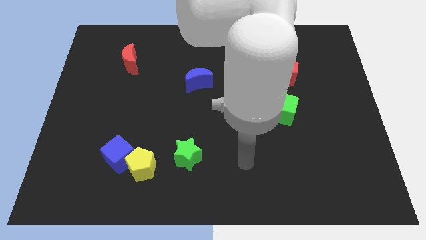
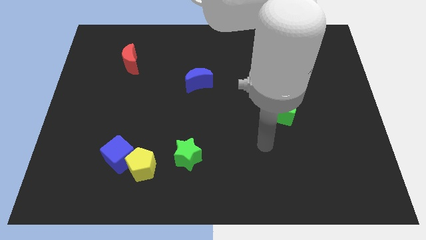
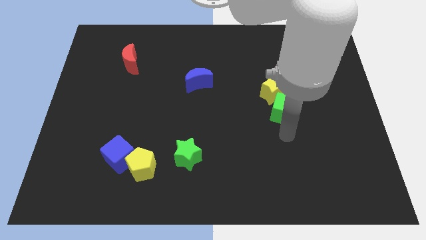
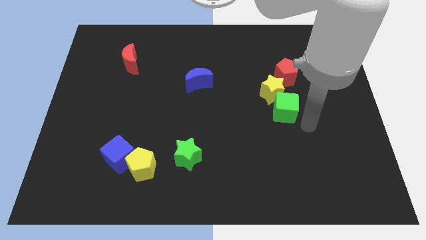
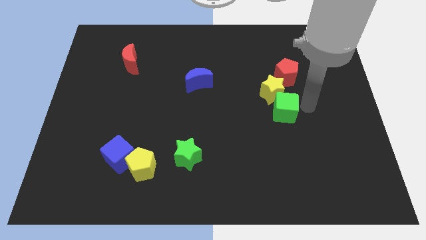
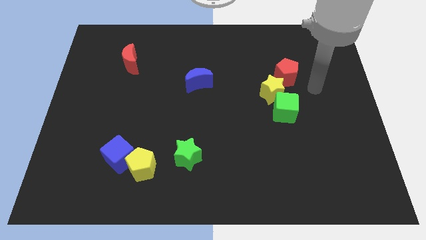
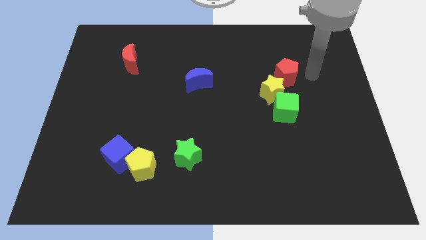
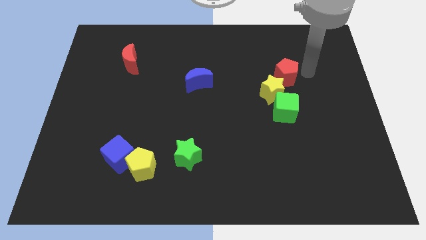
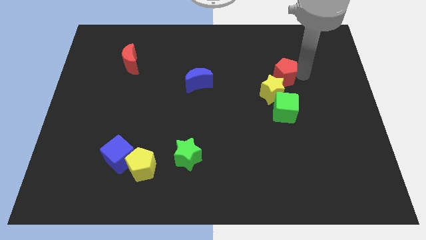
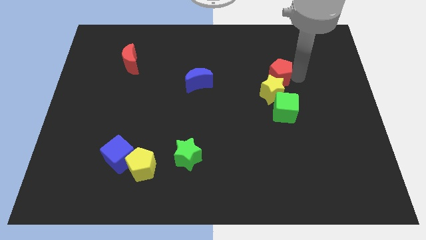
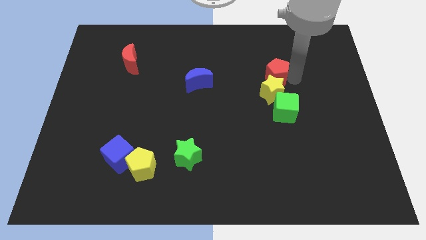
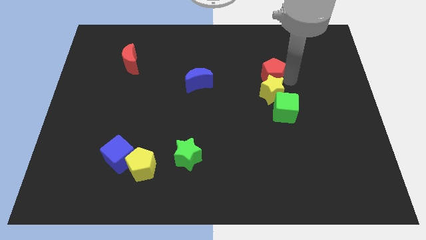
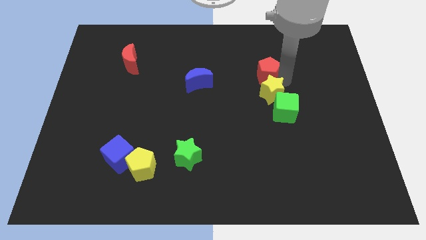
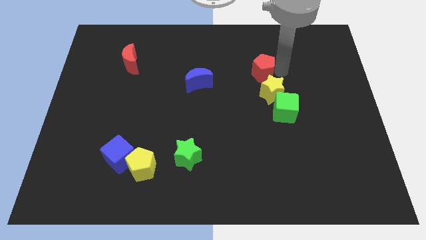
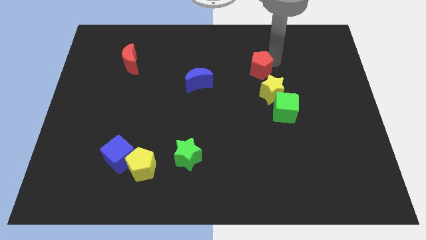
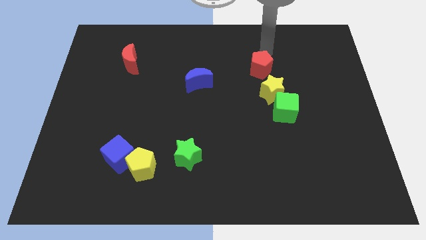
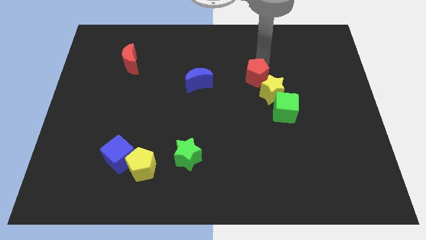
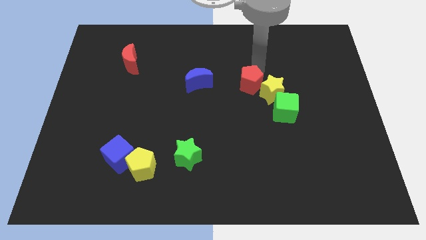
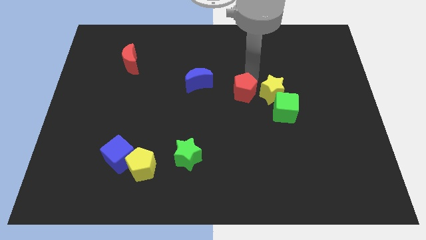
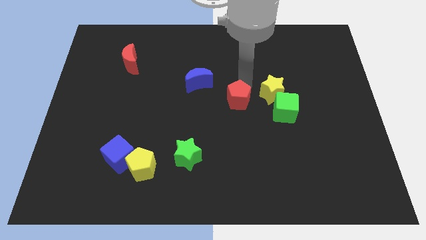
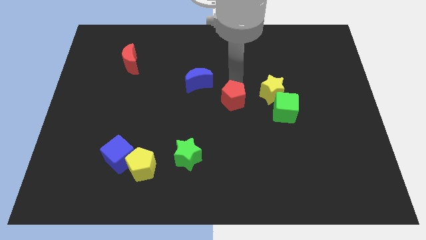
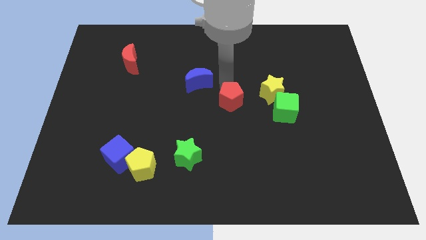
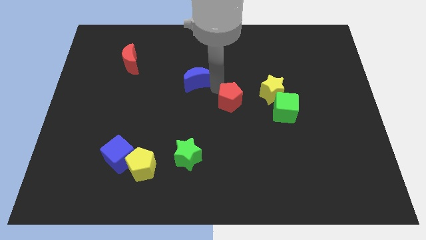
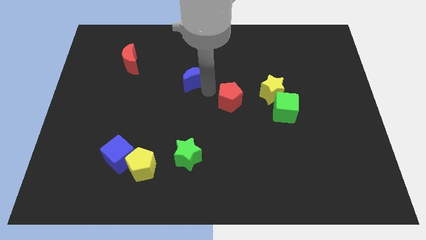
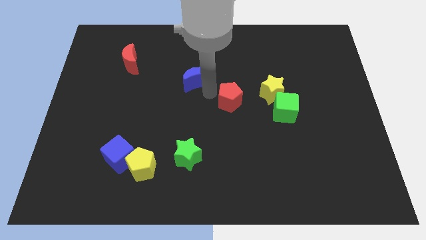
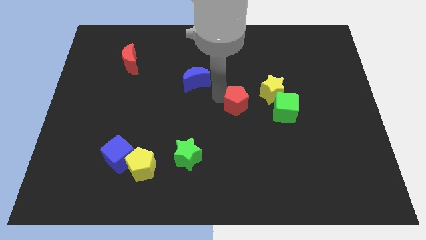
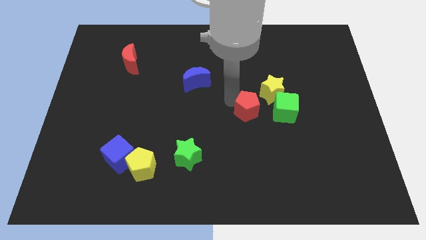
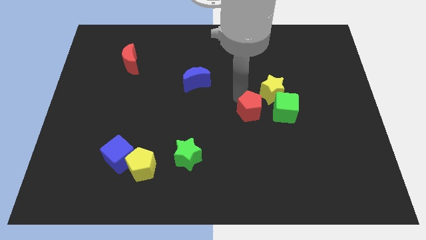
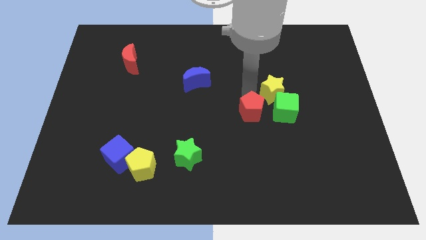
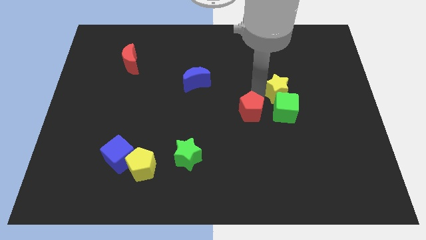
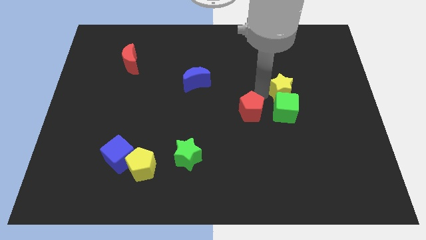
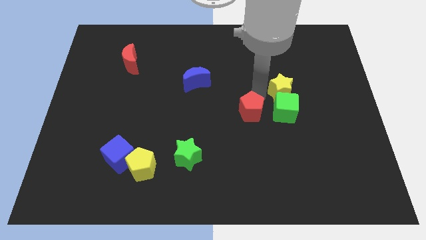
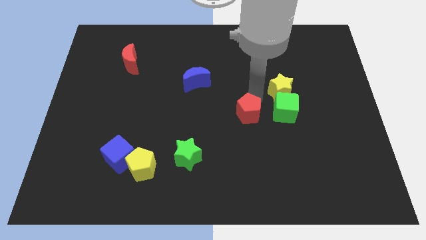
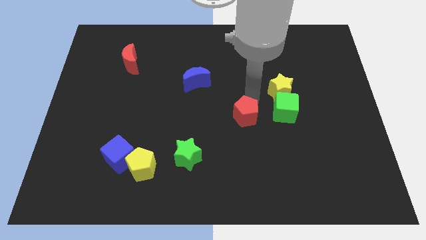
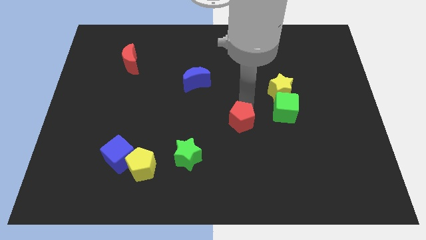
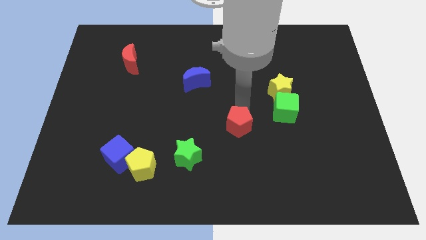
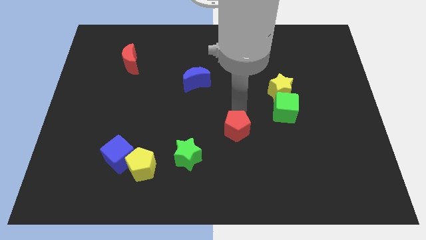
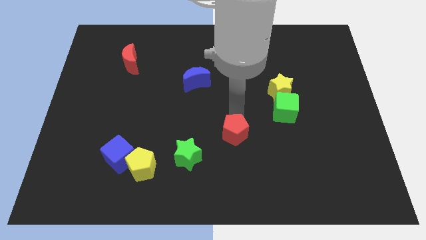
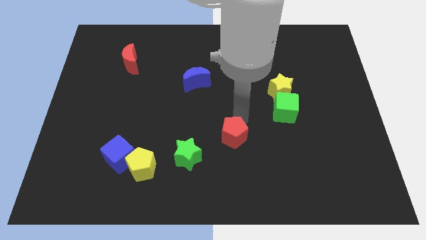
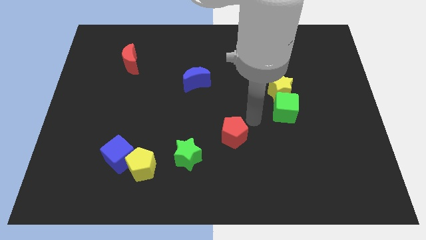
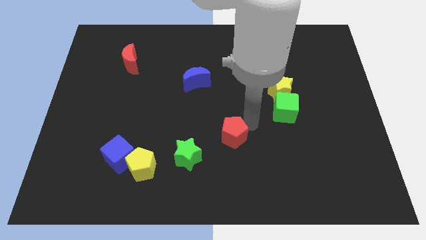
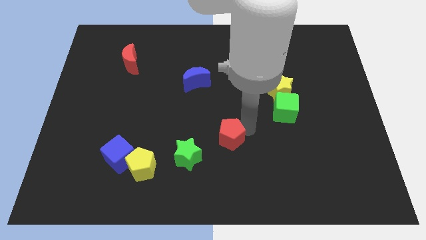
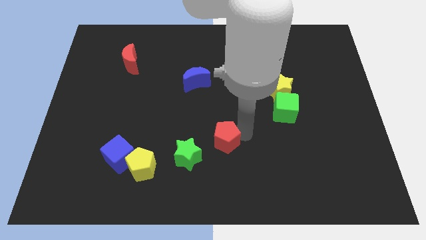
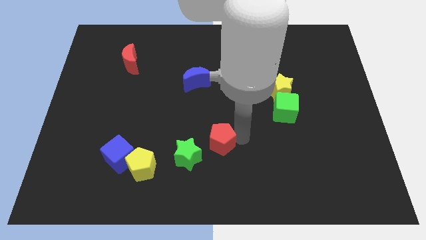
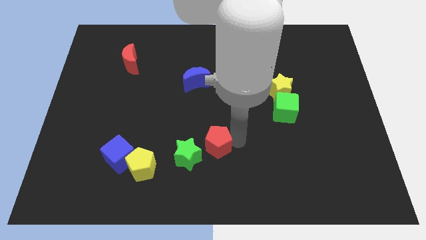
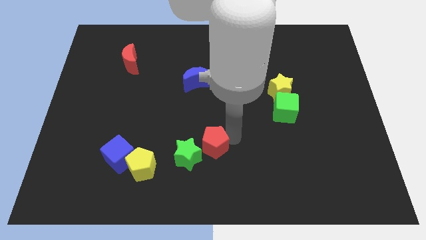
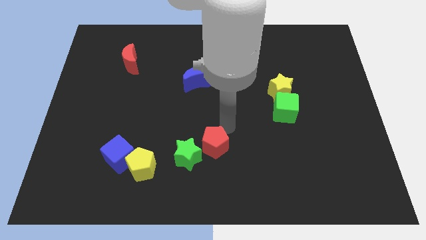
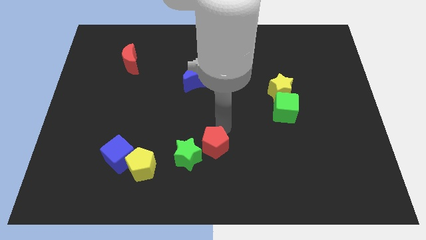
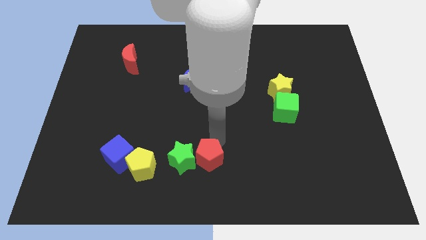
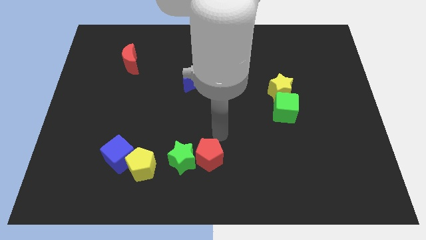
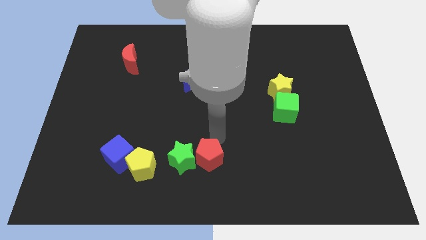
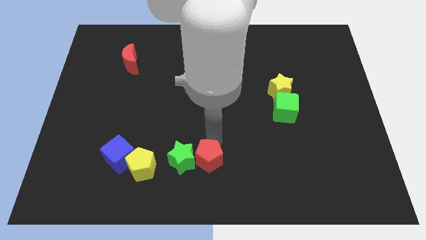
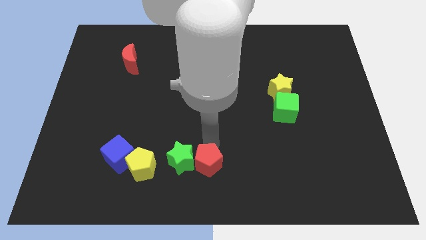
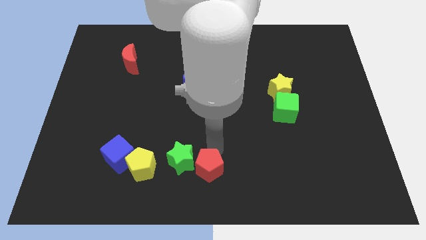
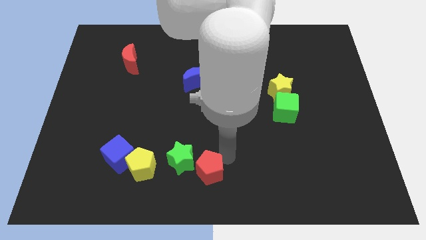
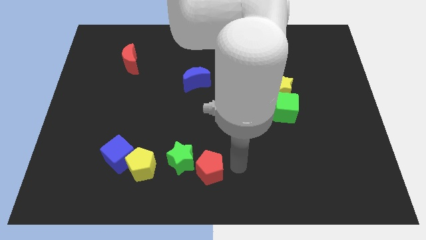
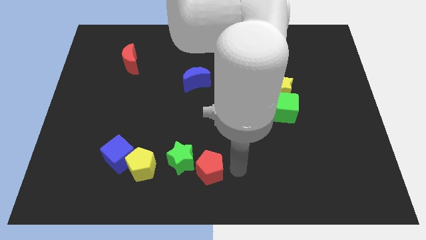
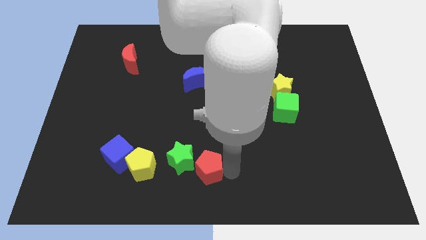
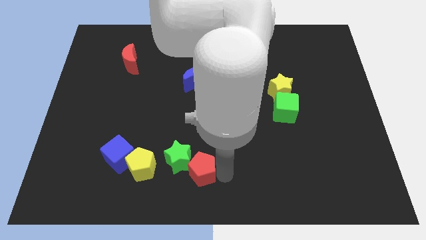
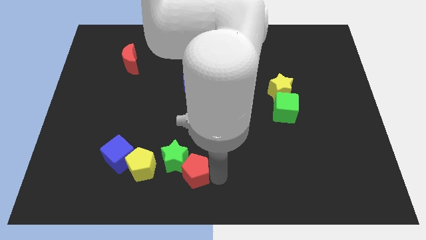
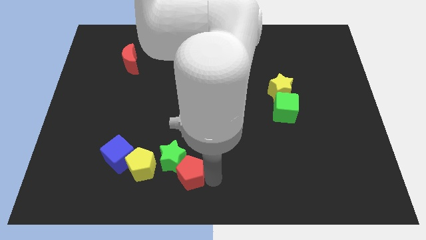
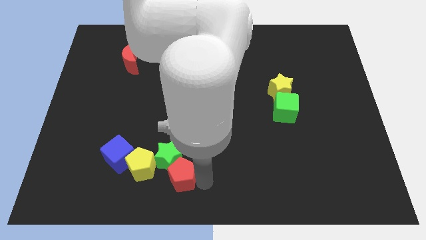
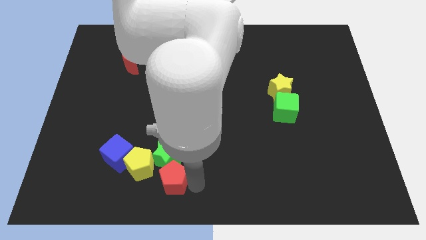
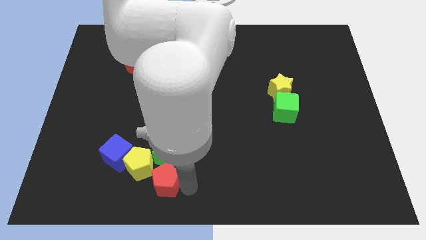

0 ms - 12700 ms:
move the red pentagon to the bottom right of the blue cube

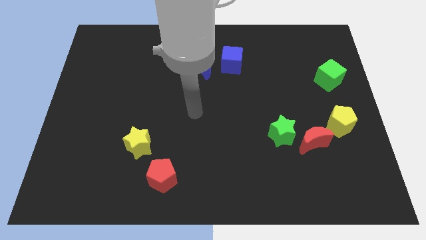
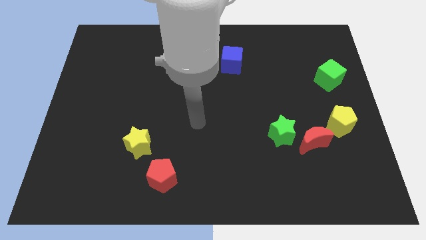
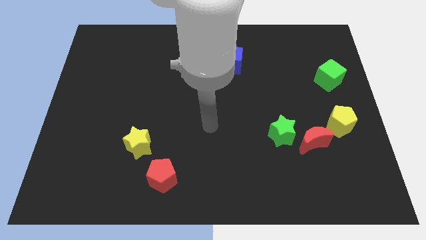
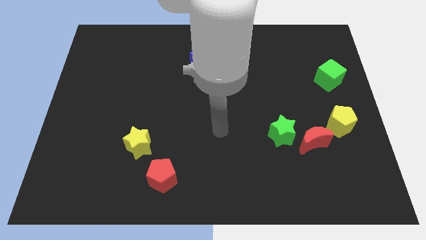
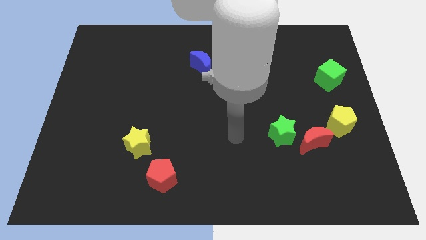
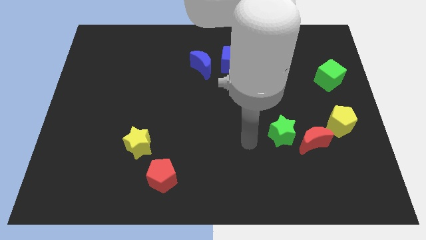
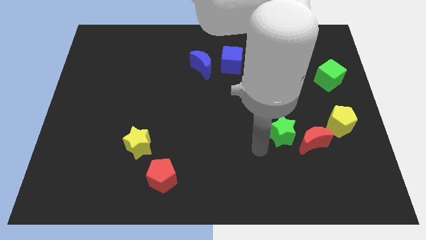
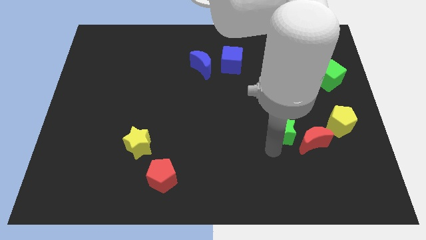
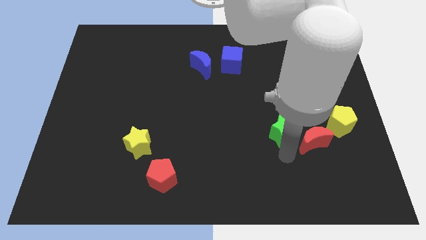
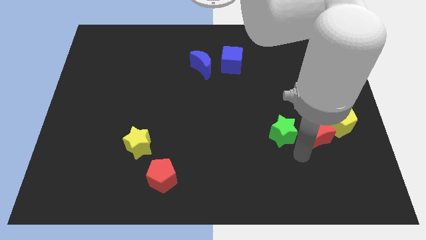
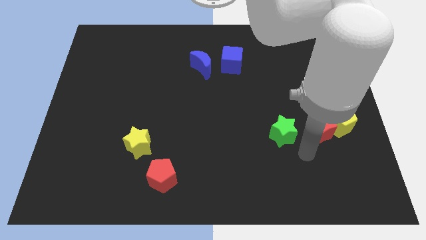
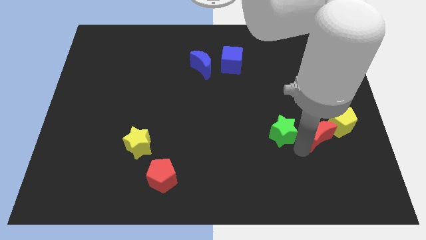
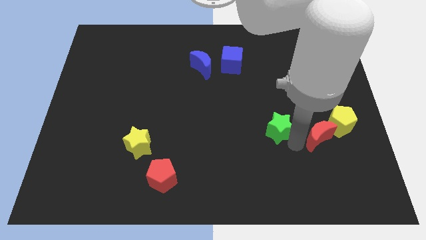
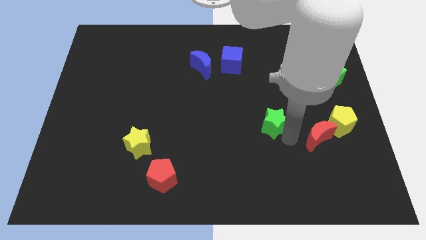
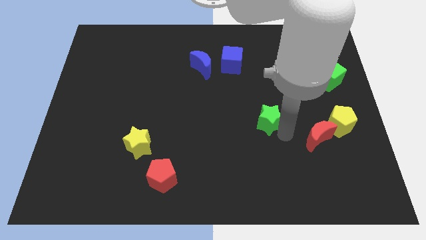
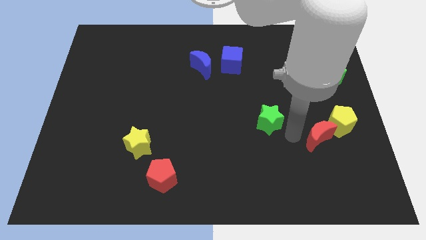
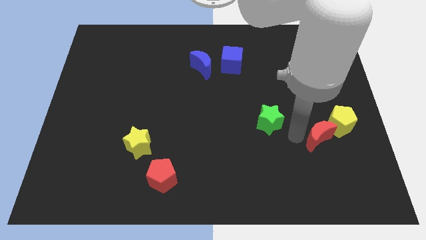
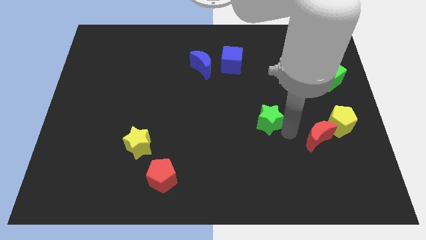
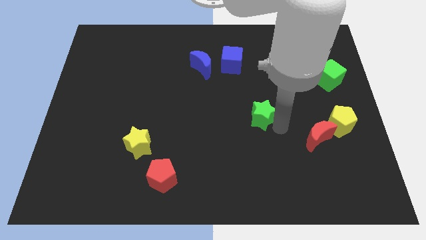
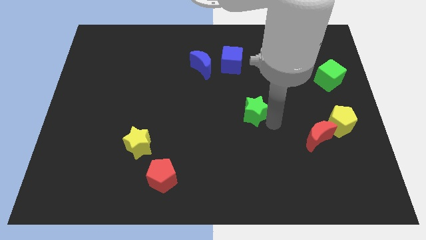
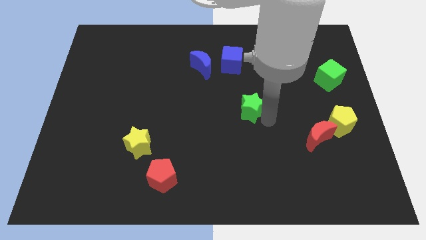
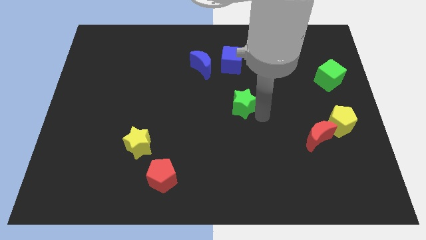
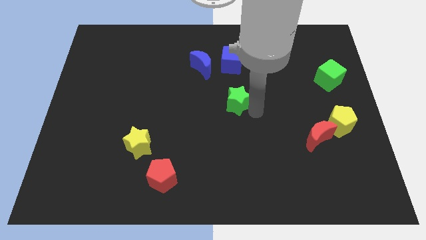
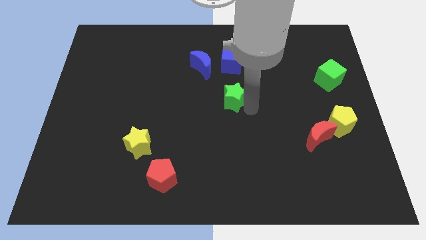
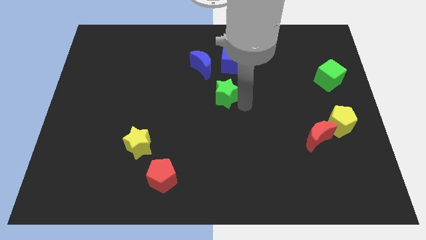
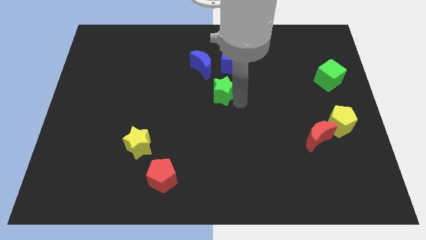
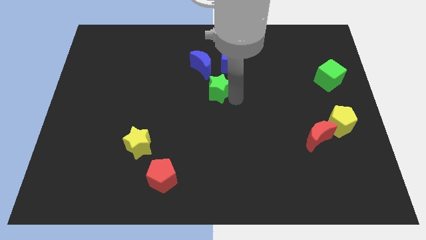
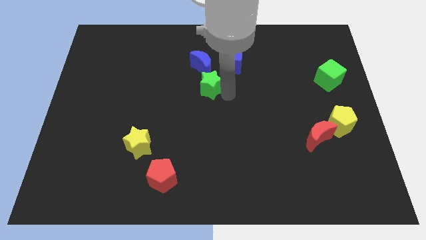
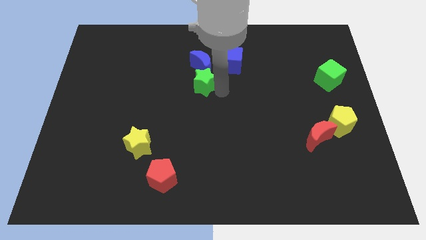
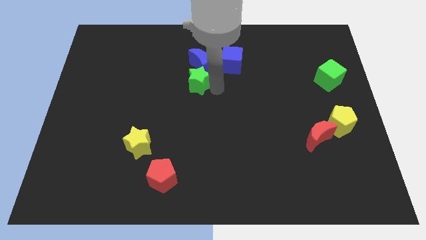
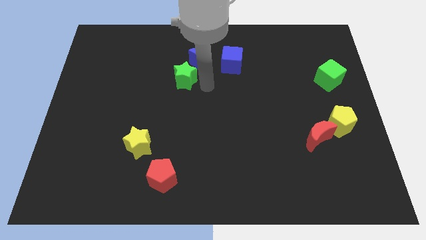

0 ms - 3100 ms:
slide the green star to the left side of the blue moon
